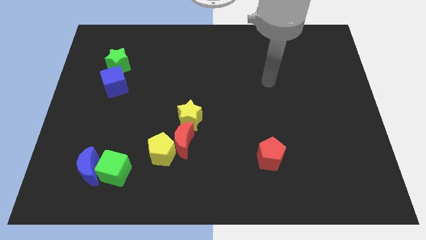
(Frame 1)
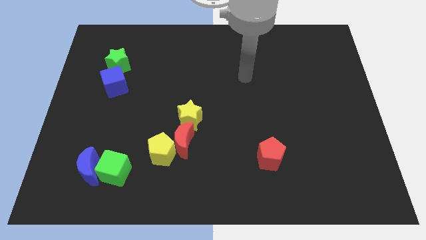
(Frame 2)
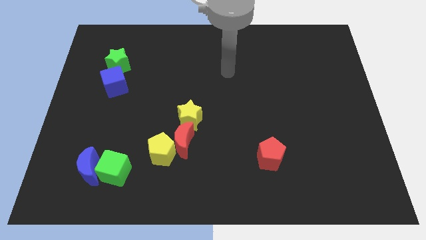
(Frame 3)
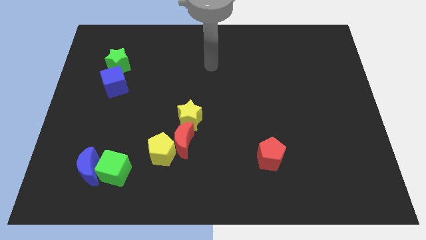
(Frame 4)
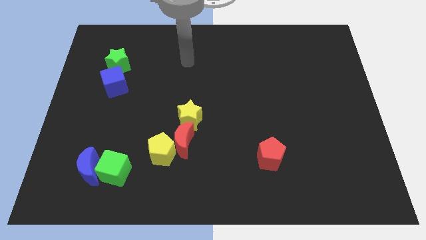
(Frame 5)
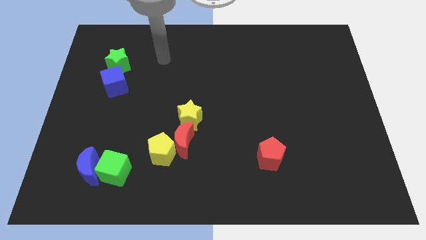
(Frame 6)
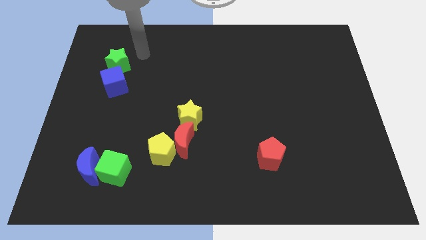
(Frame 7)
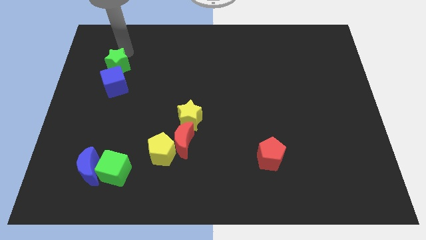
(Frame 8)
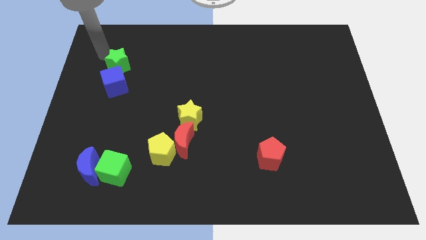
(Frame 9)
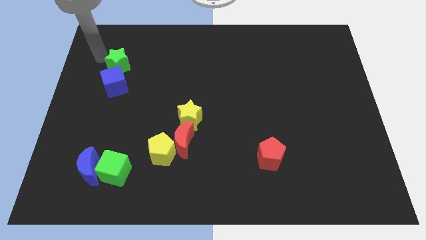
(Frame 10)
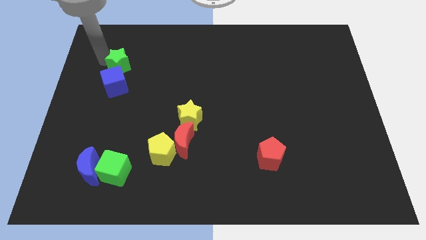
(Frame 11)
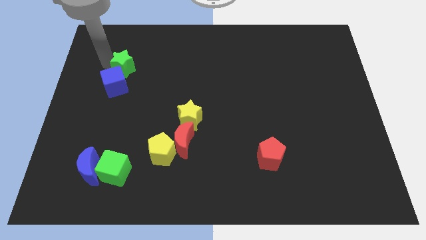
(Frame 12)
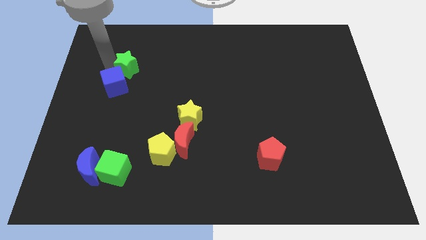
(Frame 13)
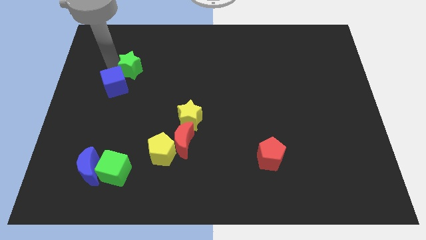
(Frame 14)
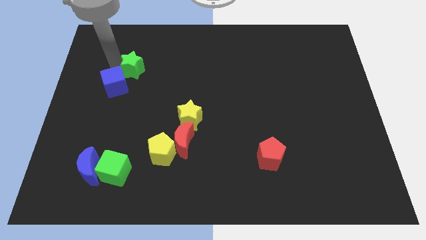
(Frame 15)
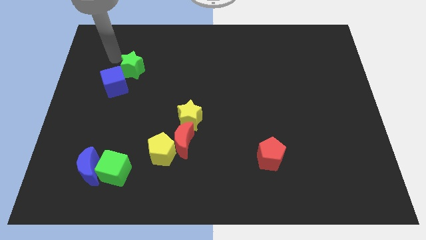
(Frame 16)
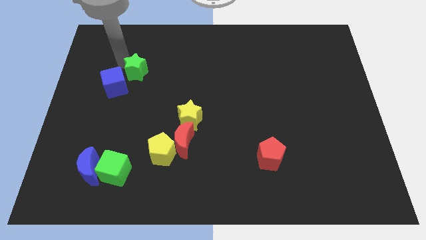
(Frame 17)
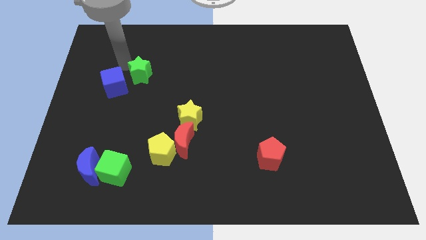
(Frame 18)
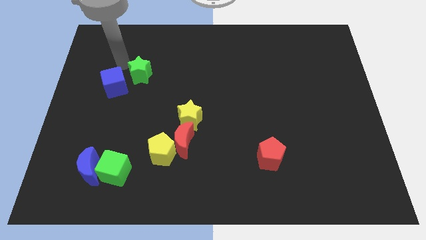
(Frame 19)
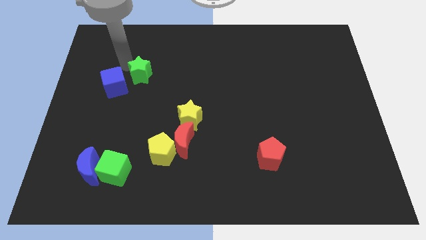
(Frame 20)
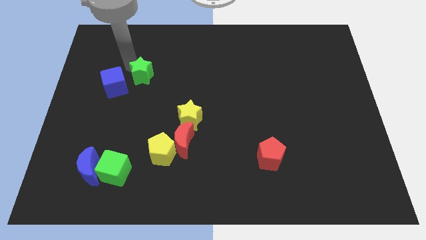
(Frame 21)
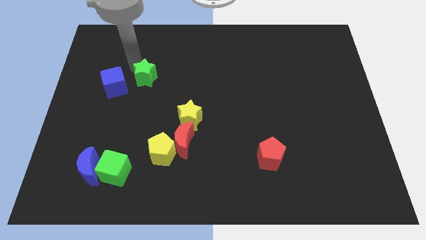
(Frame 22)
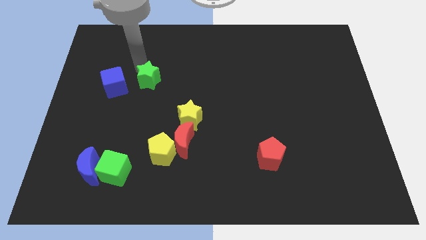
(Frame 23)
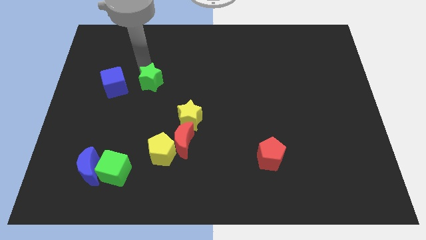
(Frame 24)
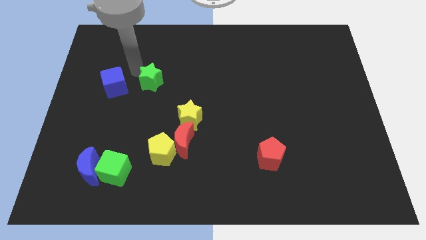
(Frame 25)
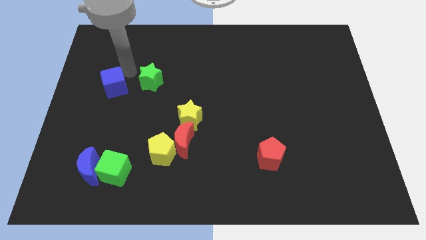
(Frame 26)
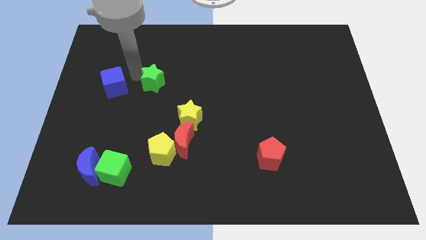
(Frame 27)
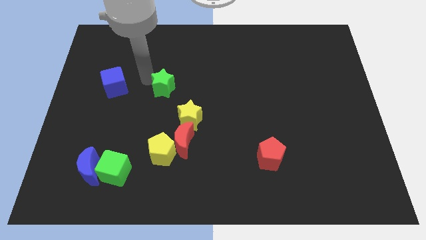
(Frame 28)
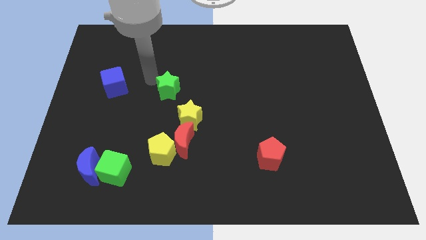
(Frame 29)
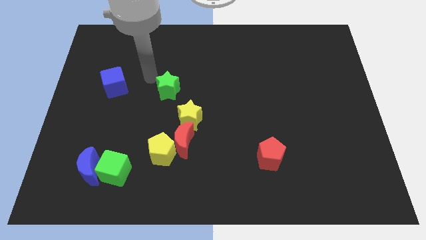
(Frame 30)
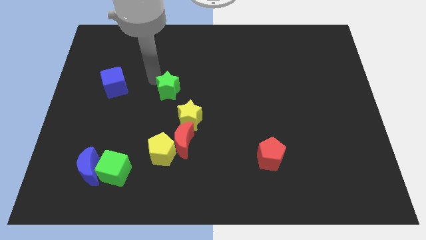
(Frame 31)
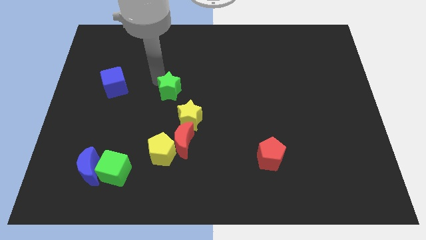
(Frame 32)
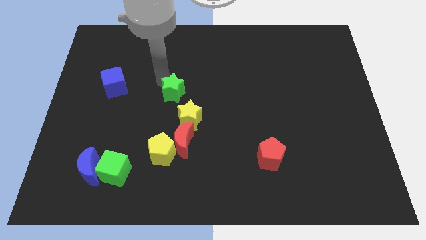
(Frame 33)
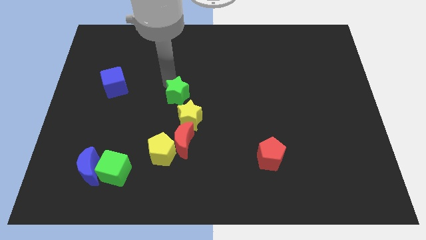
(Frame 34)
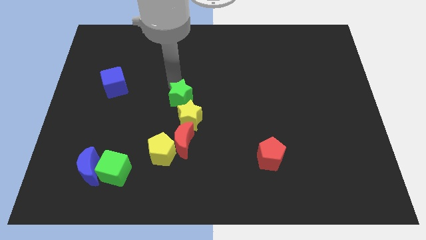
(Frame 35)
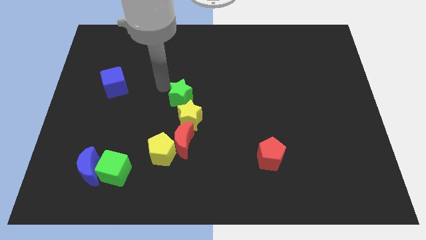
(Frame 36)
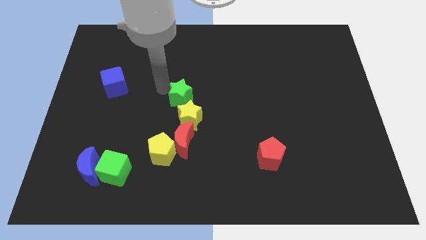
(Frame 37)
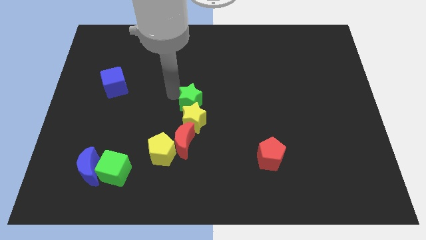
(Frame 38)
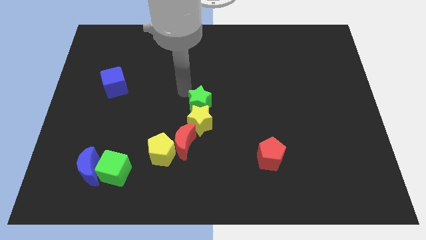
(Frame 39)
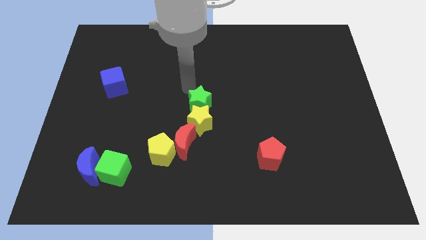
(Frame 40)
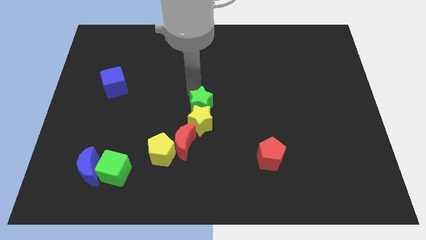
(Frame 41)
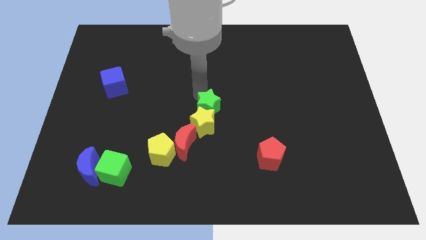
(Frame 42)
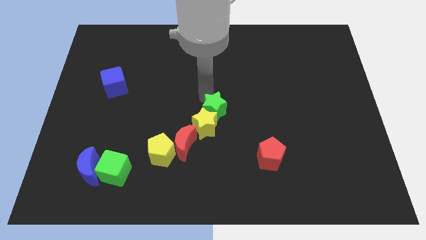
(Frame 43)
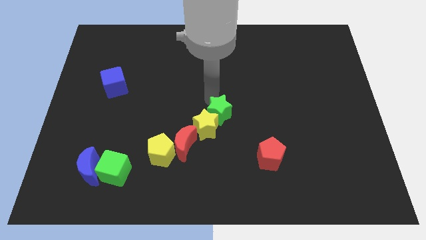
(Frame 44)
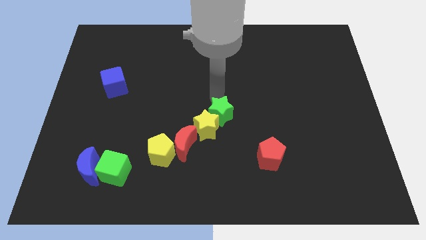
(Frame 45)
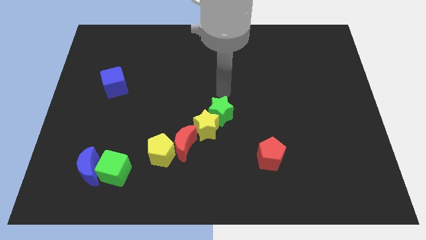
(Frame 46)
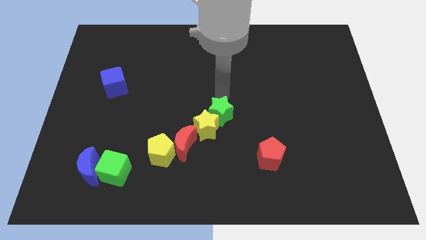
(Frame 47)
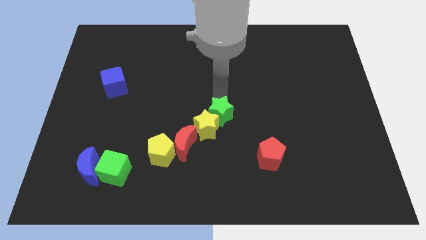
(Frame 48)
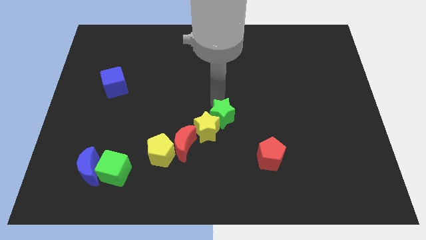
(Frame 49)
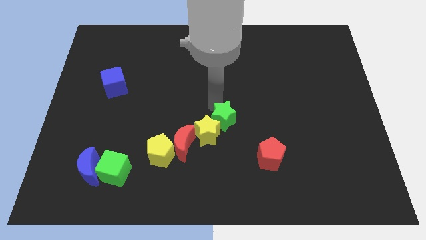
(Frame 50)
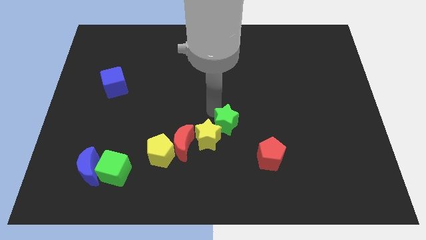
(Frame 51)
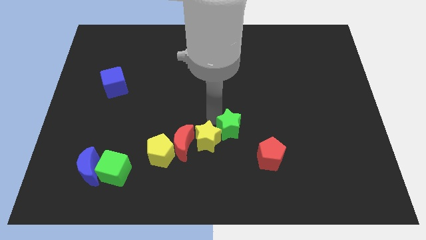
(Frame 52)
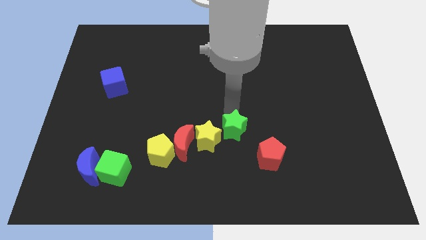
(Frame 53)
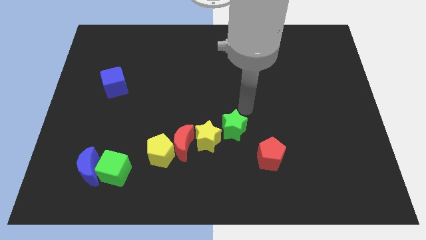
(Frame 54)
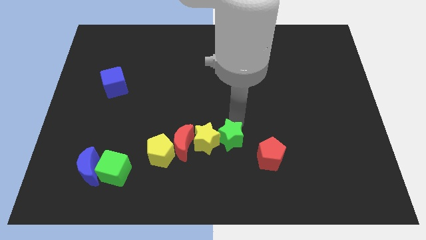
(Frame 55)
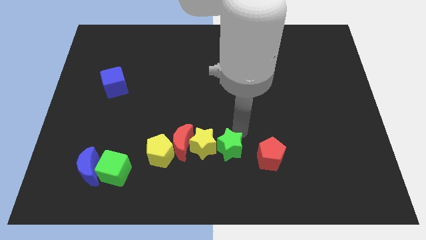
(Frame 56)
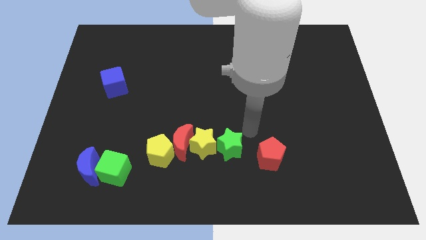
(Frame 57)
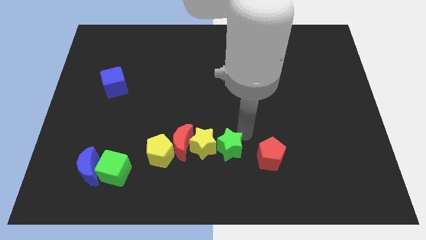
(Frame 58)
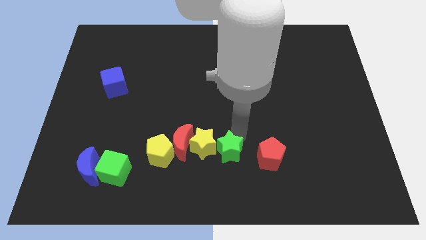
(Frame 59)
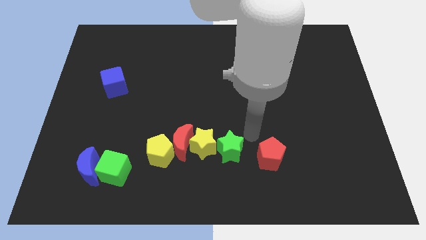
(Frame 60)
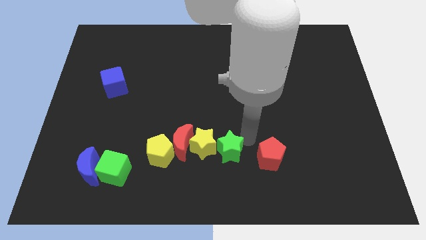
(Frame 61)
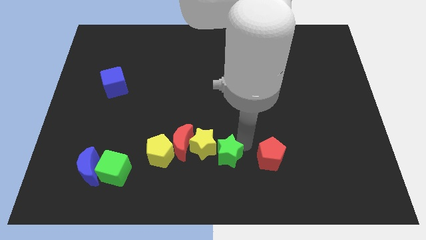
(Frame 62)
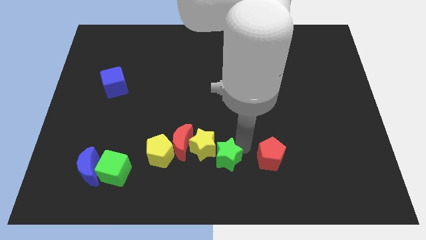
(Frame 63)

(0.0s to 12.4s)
put the green star to the bottom right side of the red moon

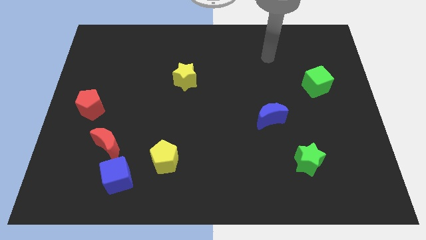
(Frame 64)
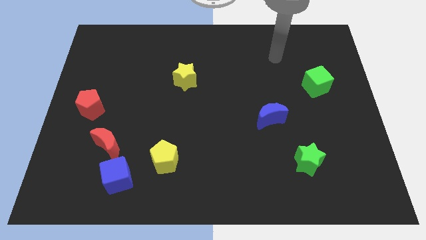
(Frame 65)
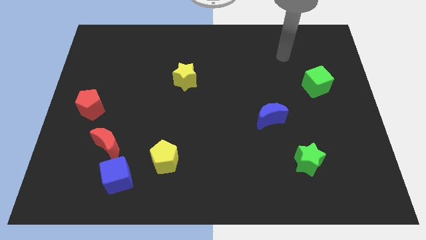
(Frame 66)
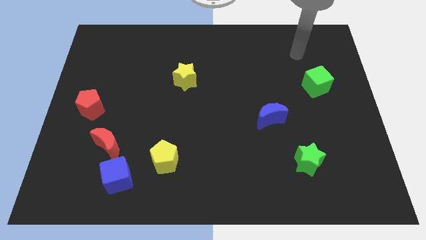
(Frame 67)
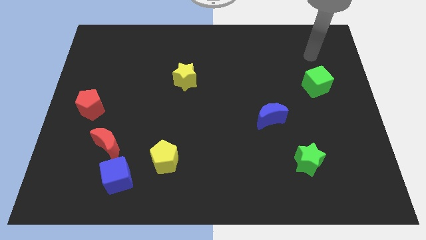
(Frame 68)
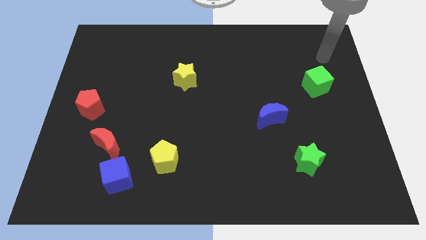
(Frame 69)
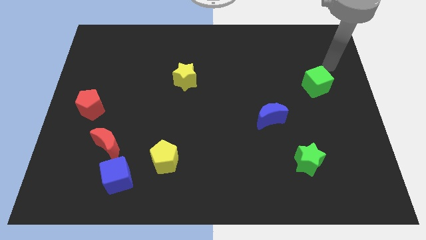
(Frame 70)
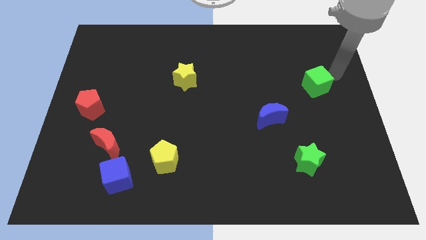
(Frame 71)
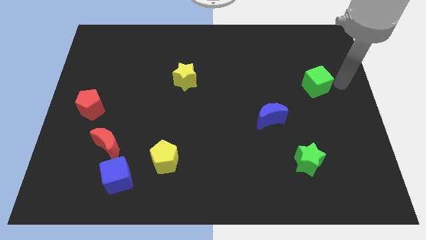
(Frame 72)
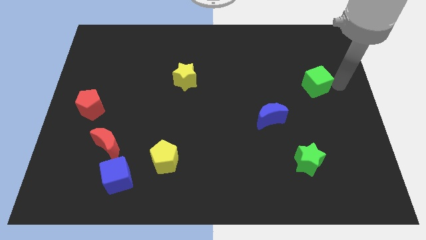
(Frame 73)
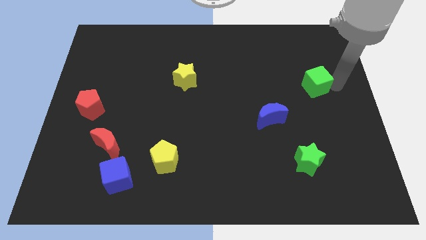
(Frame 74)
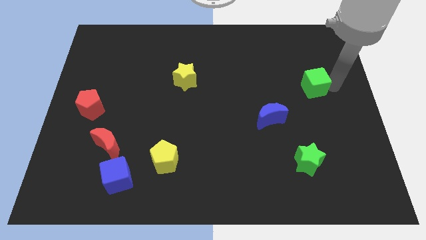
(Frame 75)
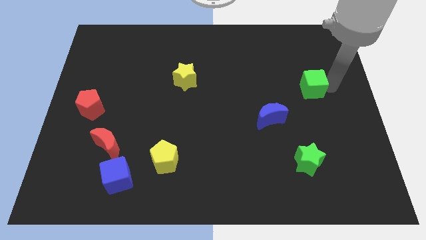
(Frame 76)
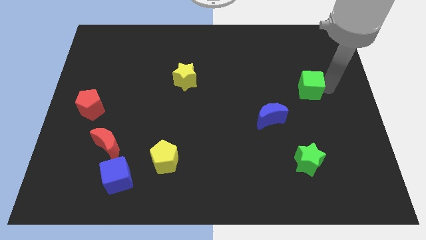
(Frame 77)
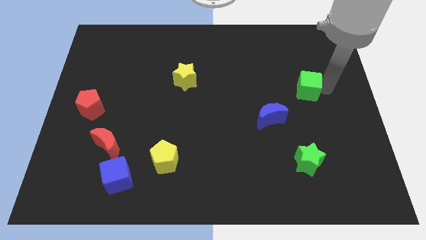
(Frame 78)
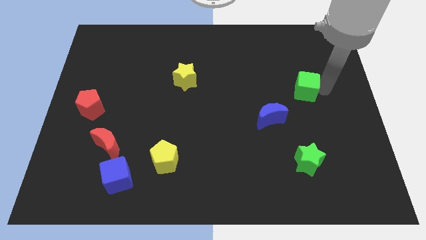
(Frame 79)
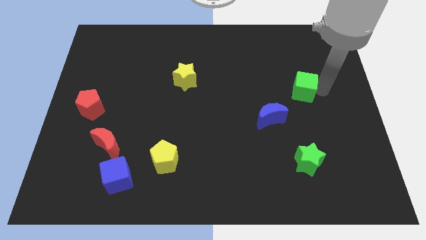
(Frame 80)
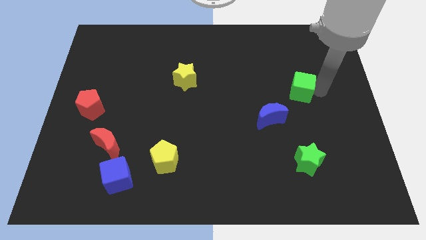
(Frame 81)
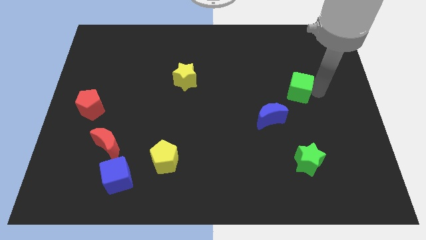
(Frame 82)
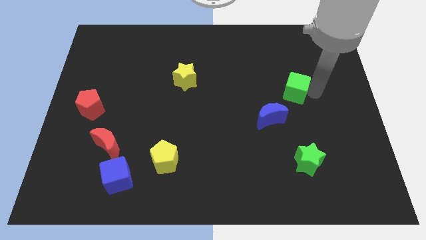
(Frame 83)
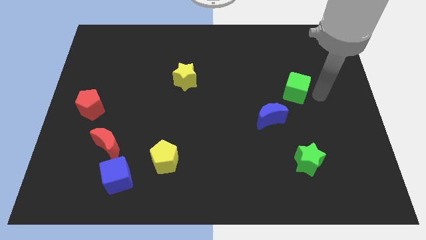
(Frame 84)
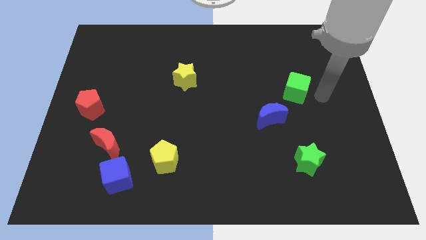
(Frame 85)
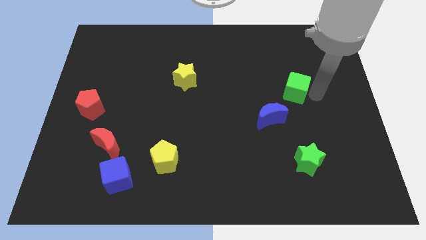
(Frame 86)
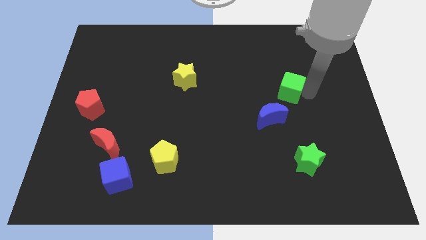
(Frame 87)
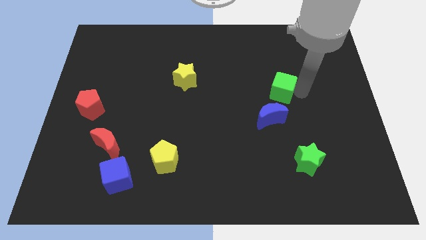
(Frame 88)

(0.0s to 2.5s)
put the green cube to the top side of the blue moon
